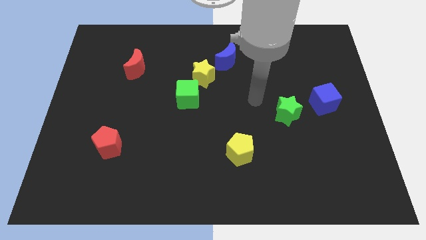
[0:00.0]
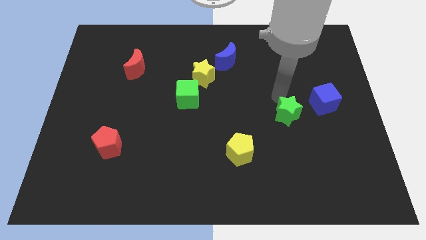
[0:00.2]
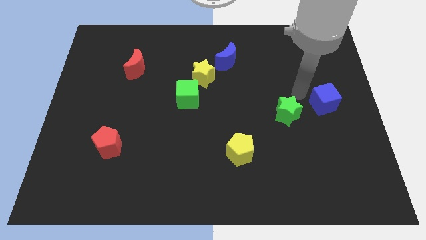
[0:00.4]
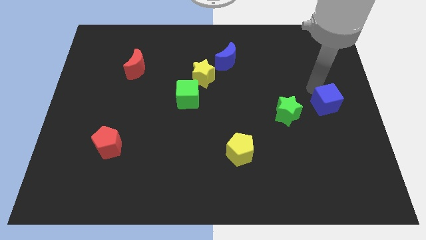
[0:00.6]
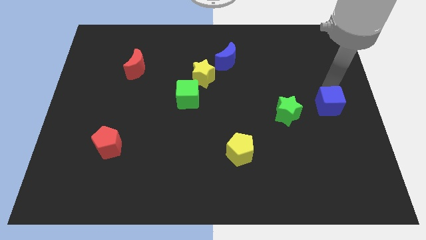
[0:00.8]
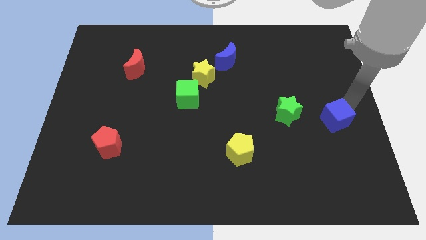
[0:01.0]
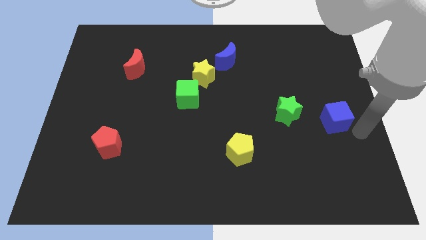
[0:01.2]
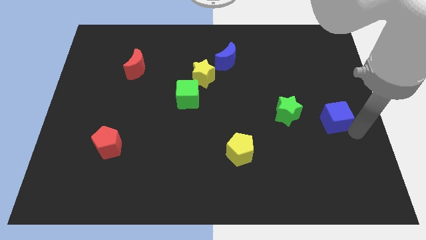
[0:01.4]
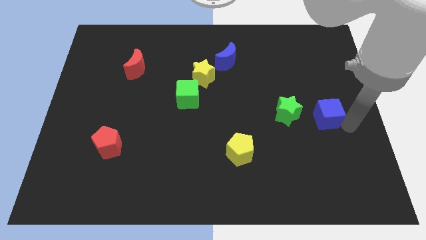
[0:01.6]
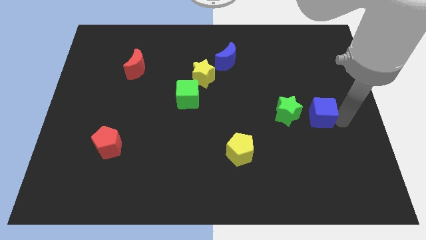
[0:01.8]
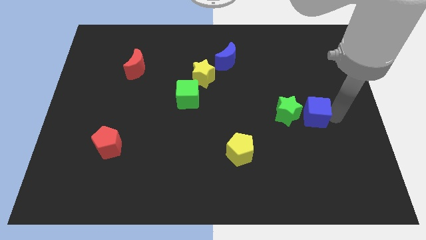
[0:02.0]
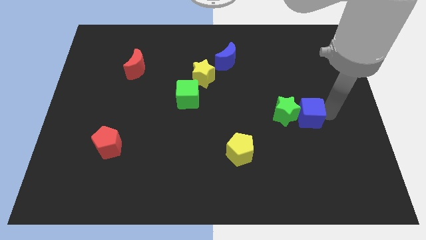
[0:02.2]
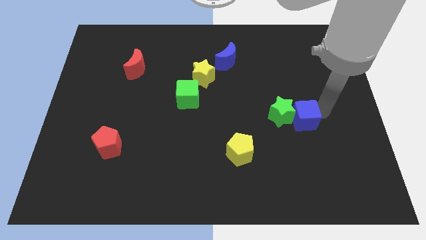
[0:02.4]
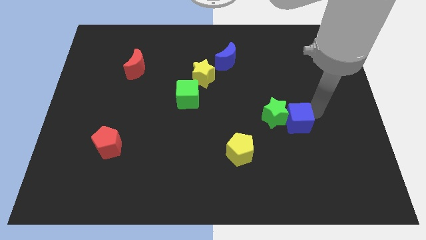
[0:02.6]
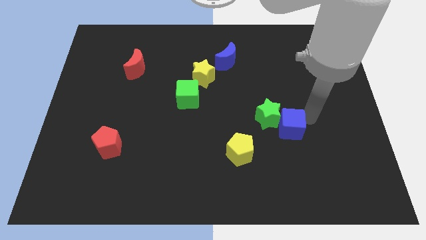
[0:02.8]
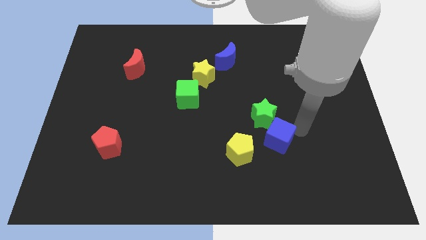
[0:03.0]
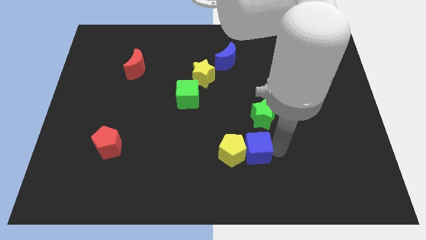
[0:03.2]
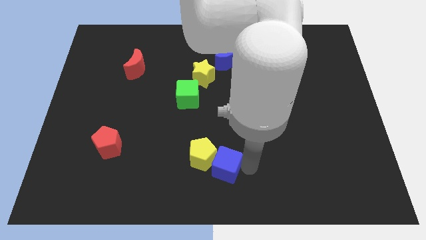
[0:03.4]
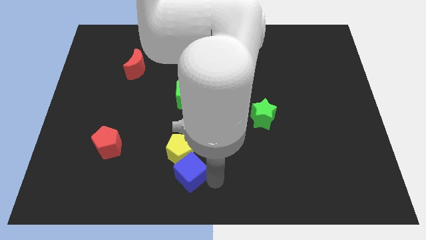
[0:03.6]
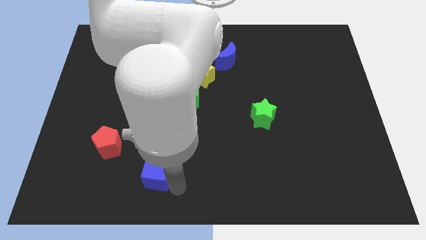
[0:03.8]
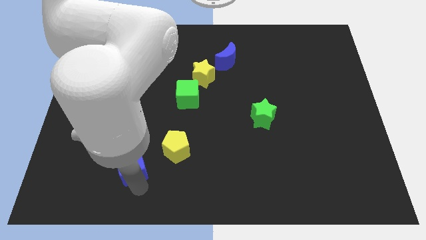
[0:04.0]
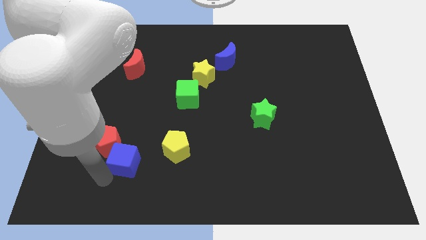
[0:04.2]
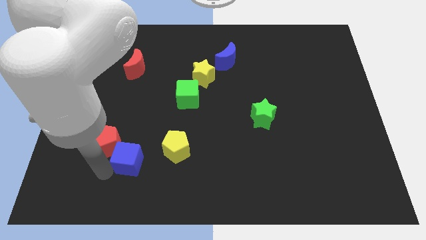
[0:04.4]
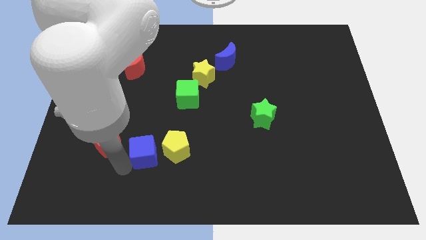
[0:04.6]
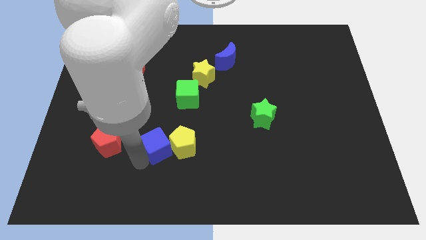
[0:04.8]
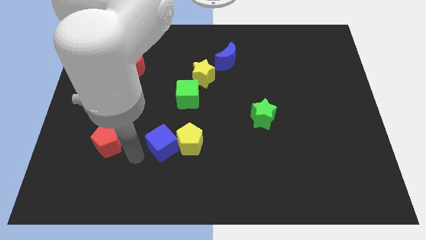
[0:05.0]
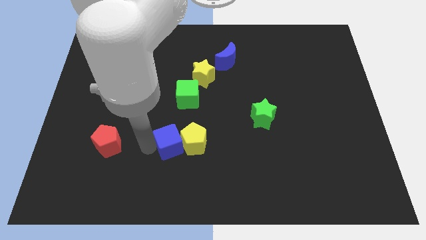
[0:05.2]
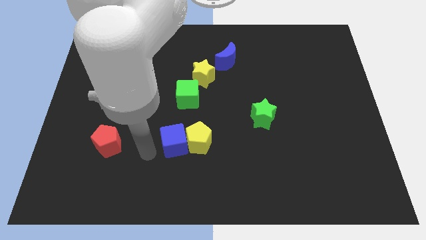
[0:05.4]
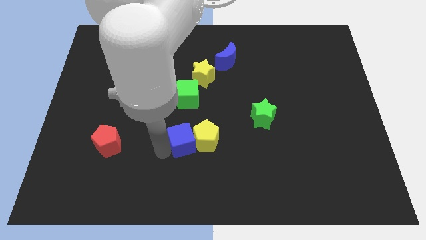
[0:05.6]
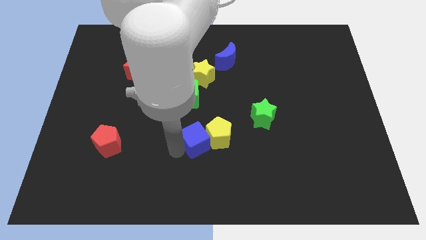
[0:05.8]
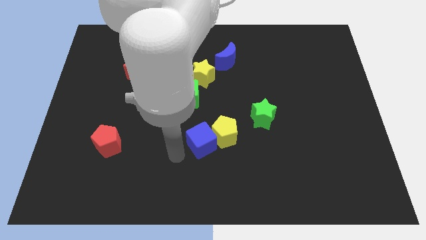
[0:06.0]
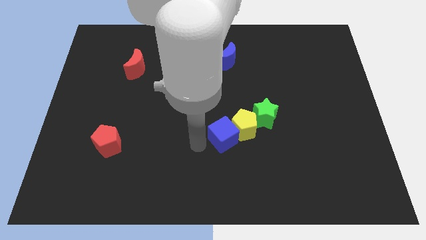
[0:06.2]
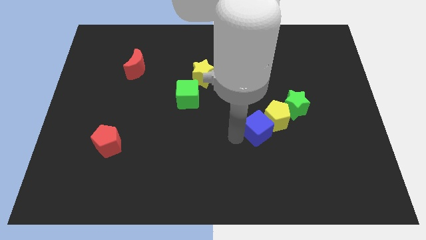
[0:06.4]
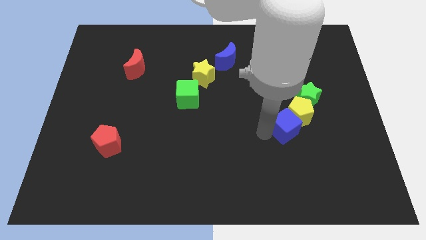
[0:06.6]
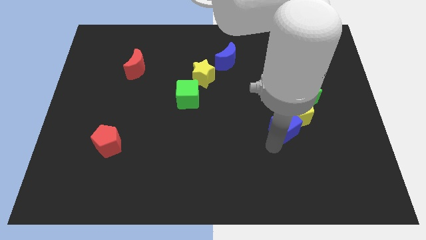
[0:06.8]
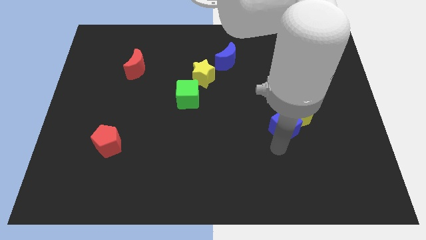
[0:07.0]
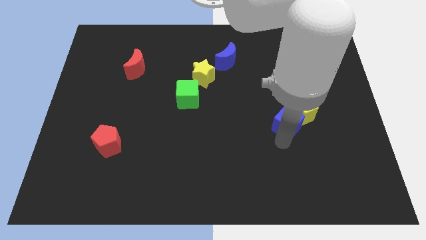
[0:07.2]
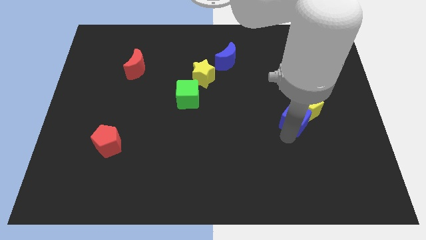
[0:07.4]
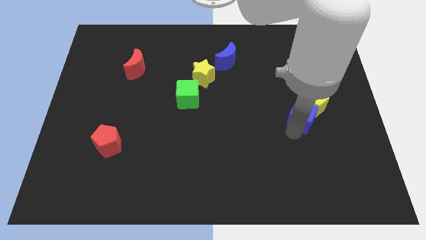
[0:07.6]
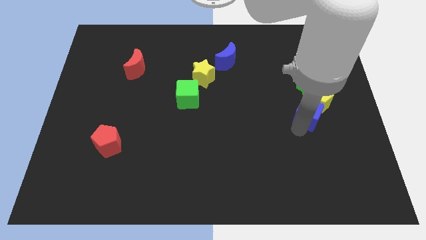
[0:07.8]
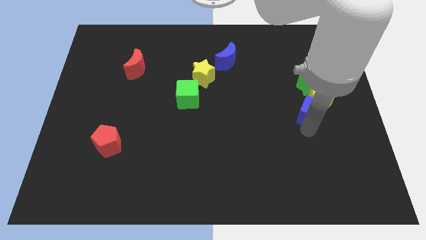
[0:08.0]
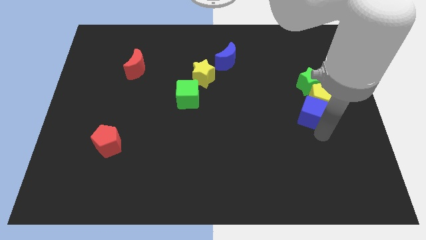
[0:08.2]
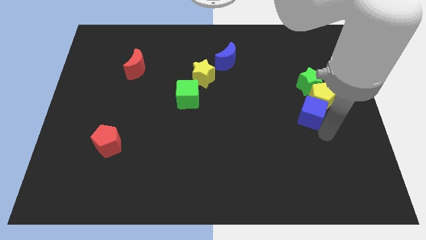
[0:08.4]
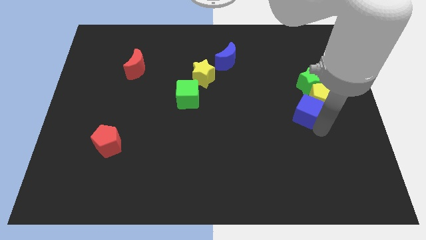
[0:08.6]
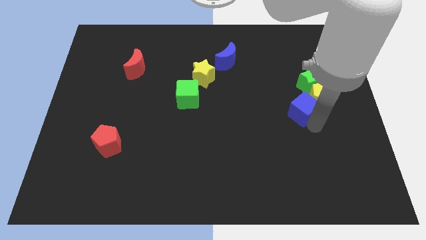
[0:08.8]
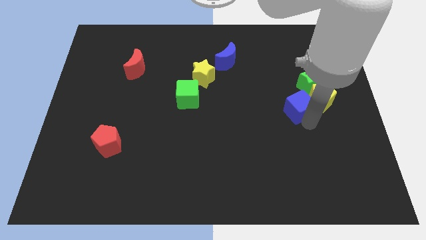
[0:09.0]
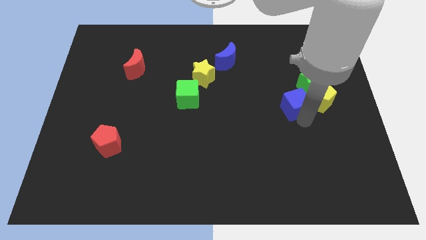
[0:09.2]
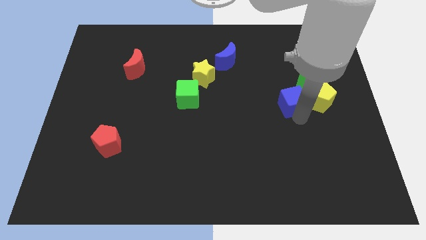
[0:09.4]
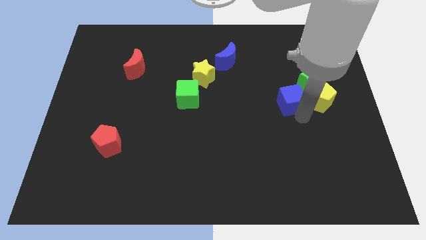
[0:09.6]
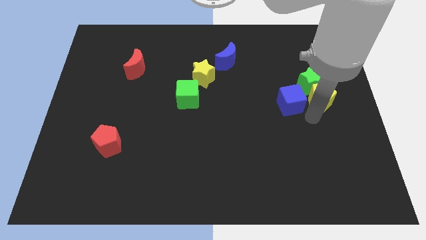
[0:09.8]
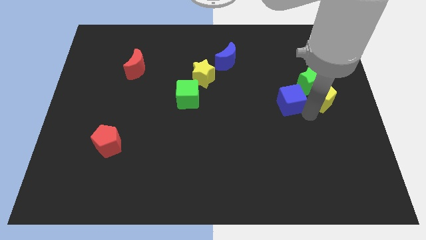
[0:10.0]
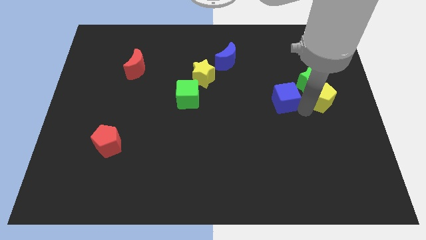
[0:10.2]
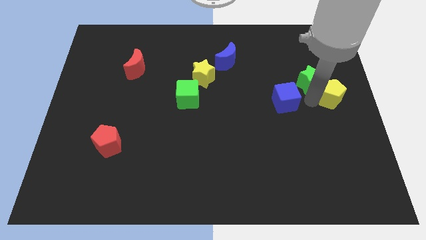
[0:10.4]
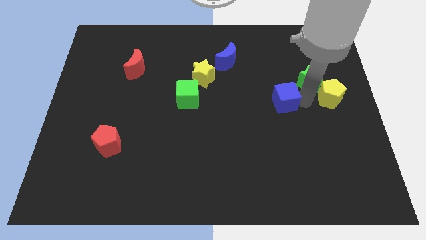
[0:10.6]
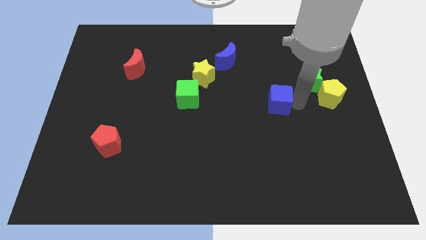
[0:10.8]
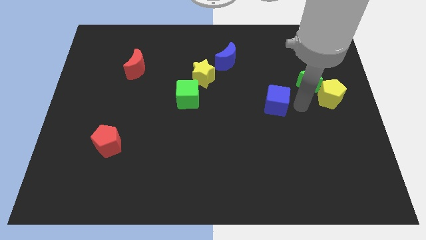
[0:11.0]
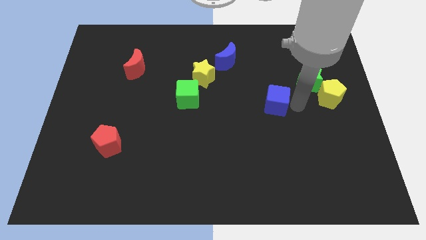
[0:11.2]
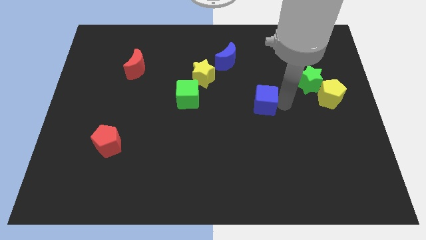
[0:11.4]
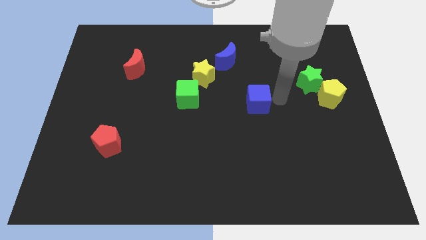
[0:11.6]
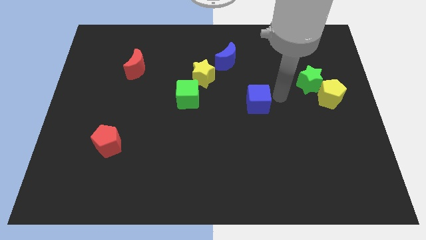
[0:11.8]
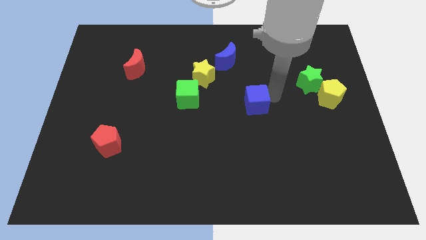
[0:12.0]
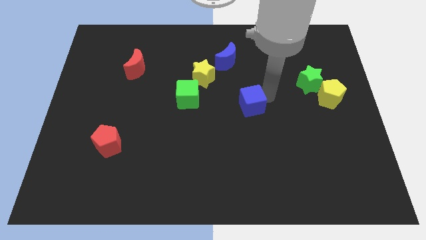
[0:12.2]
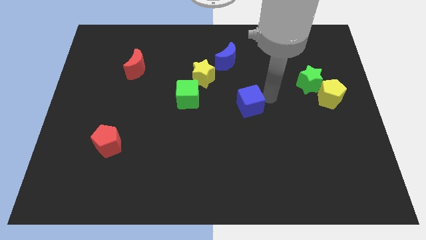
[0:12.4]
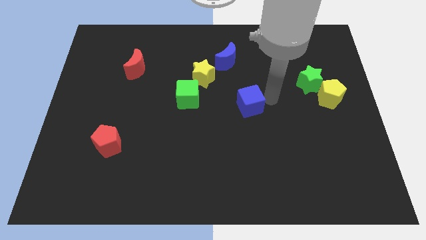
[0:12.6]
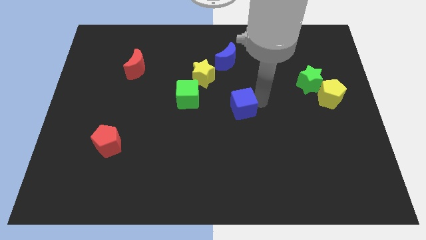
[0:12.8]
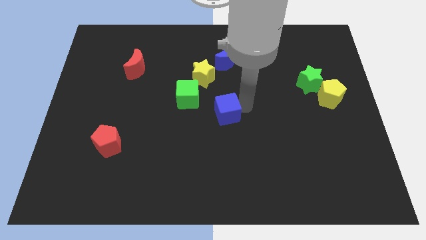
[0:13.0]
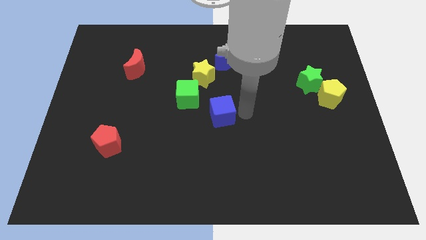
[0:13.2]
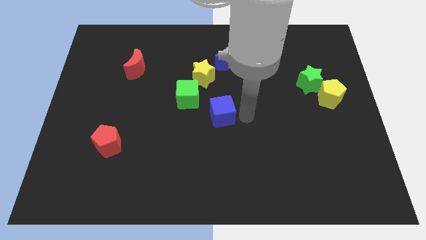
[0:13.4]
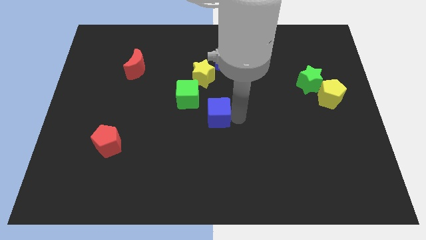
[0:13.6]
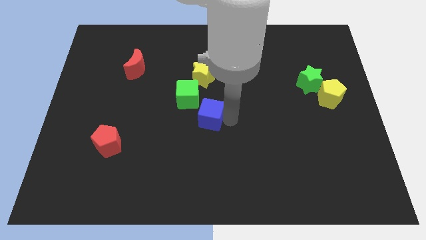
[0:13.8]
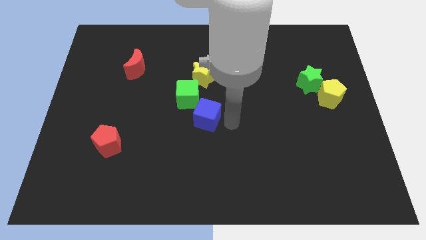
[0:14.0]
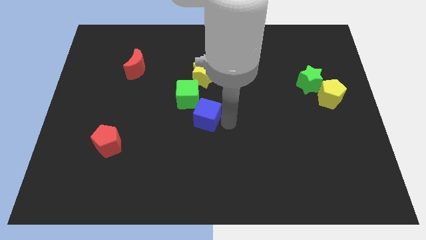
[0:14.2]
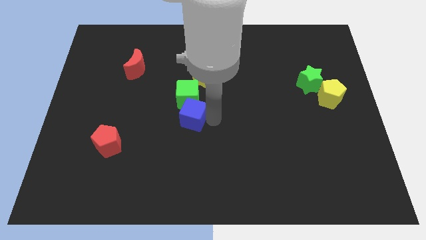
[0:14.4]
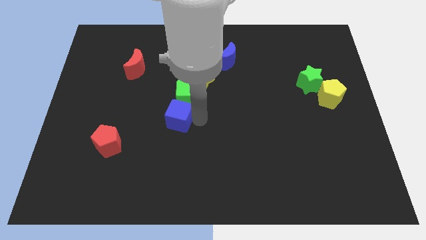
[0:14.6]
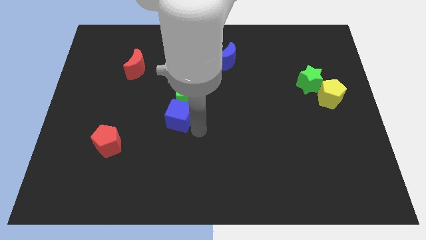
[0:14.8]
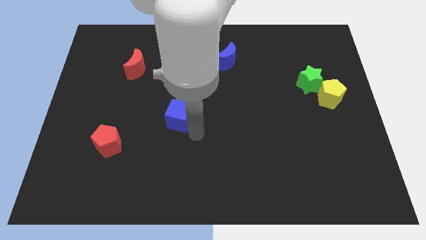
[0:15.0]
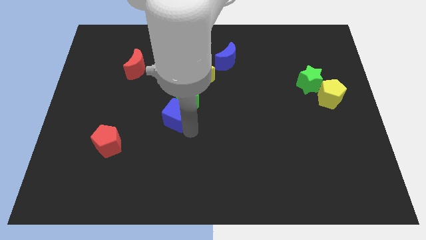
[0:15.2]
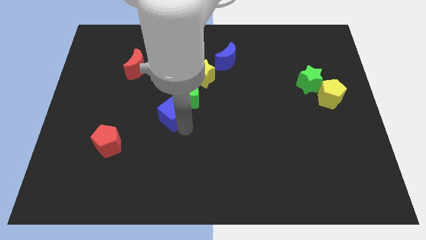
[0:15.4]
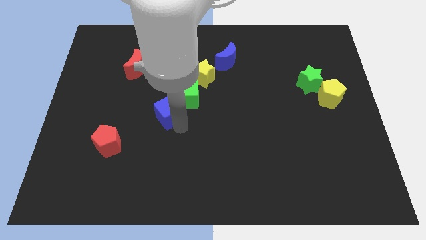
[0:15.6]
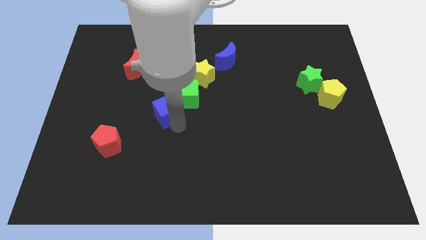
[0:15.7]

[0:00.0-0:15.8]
put the blue cube to the left side of the green cube
